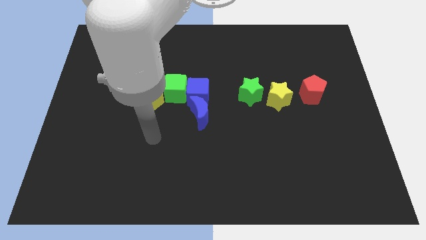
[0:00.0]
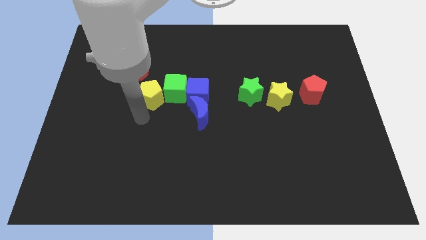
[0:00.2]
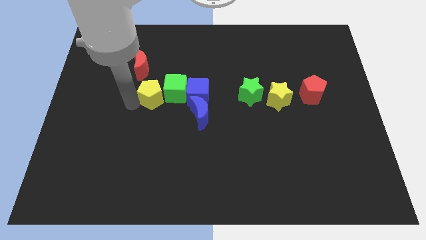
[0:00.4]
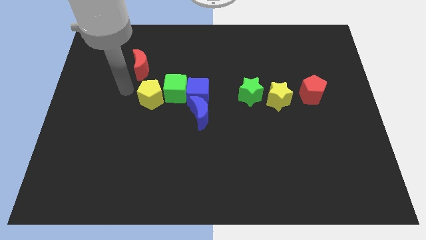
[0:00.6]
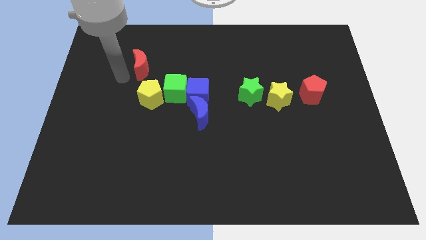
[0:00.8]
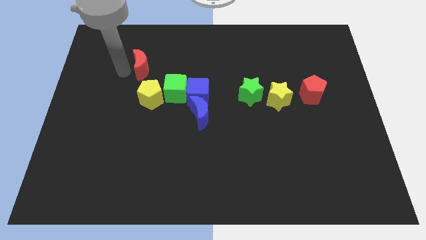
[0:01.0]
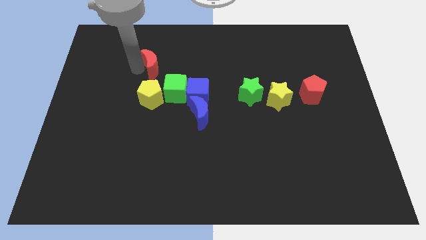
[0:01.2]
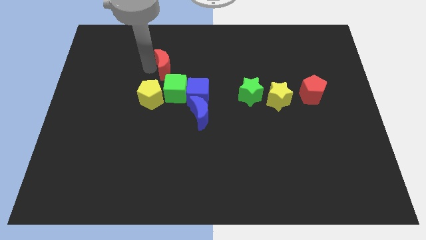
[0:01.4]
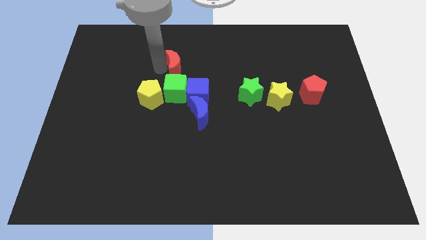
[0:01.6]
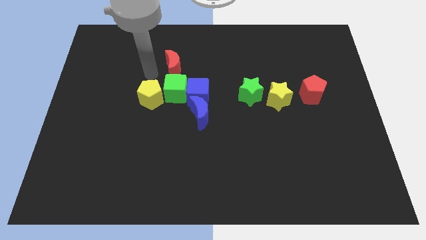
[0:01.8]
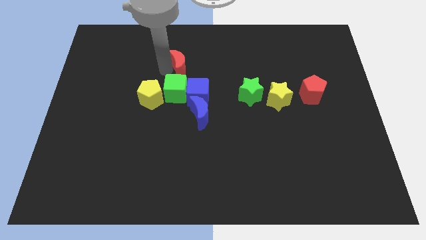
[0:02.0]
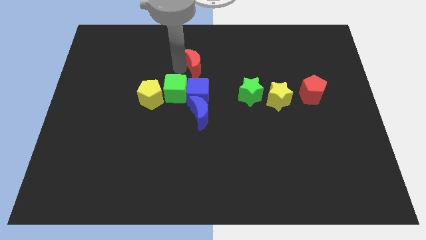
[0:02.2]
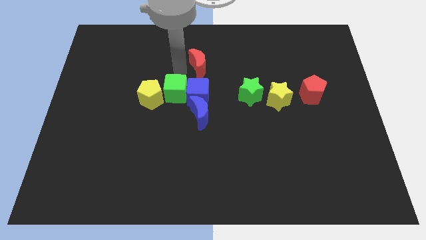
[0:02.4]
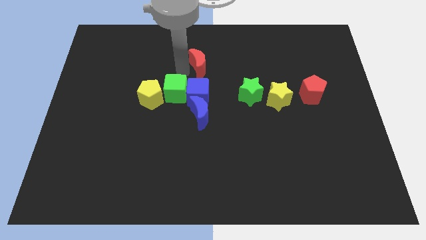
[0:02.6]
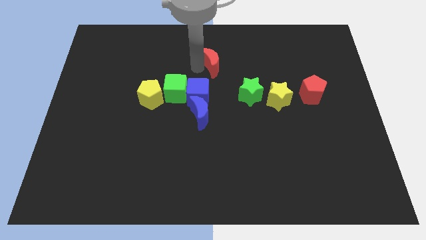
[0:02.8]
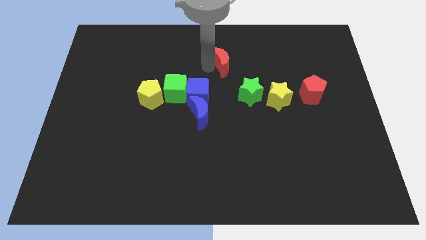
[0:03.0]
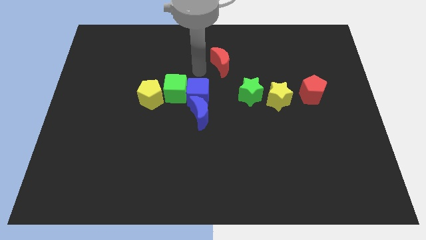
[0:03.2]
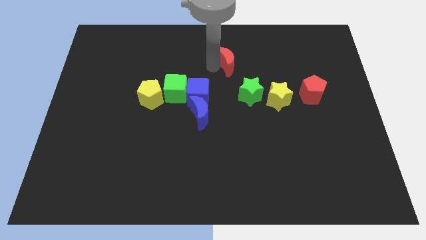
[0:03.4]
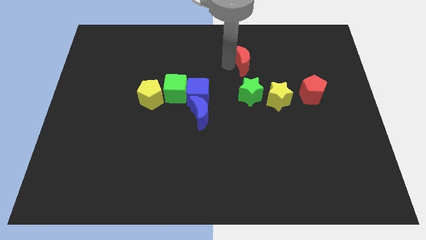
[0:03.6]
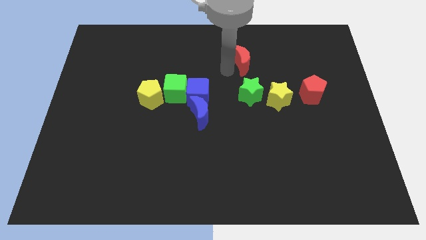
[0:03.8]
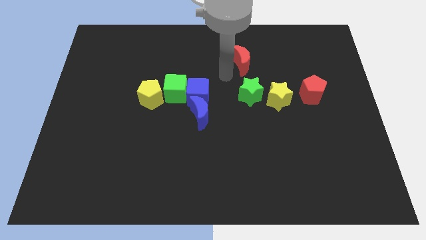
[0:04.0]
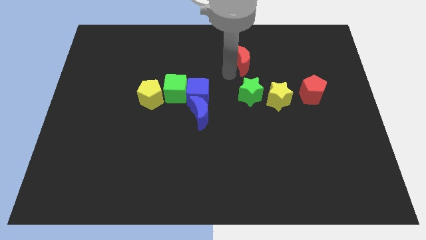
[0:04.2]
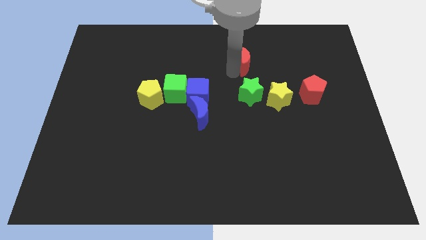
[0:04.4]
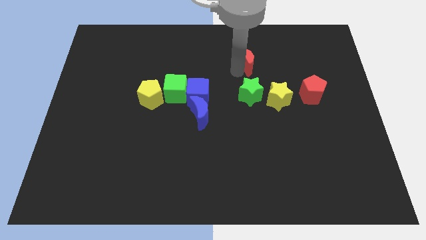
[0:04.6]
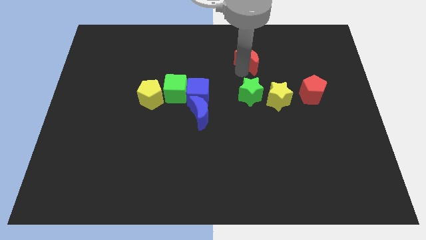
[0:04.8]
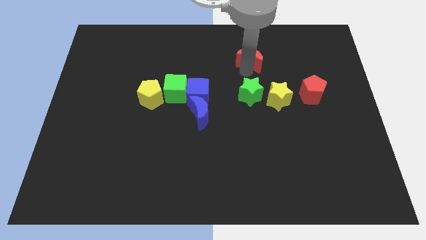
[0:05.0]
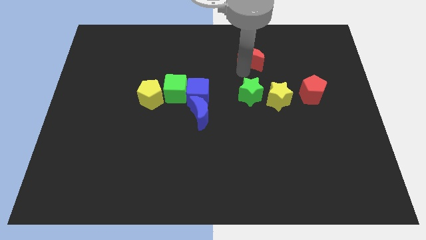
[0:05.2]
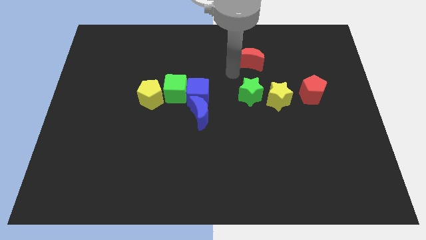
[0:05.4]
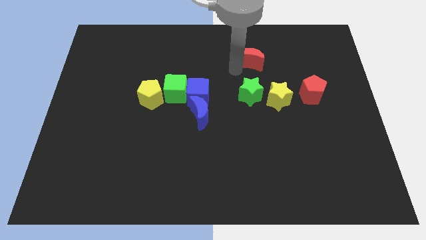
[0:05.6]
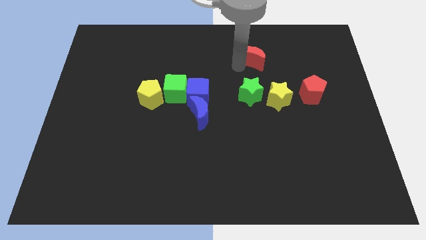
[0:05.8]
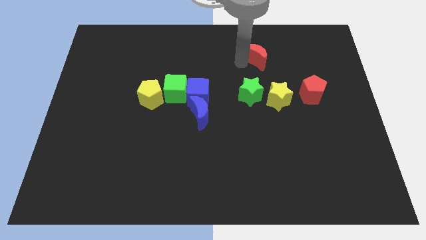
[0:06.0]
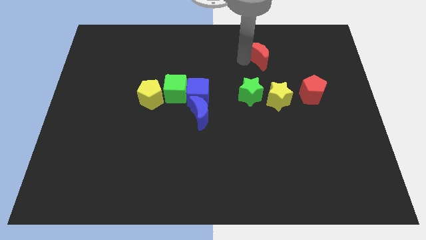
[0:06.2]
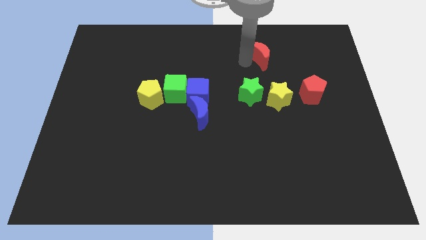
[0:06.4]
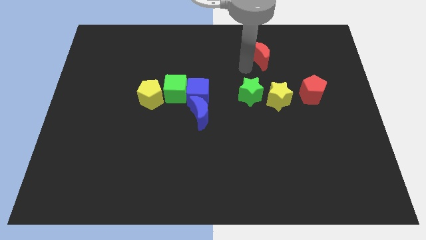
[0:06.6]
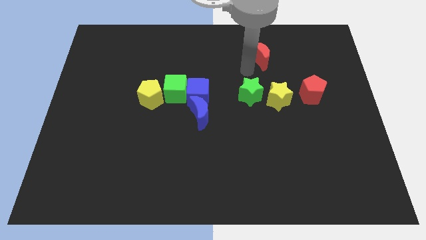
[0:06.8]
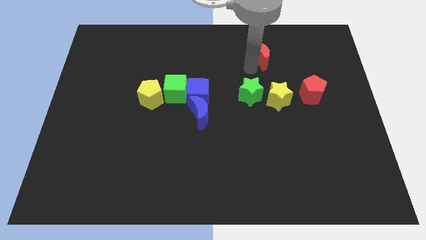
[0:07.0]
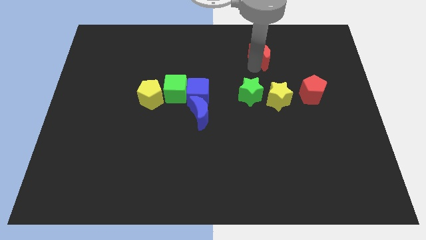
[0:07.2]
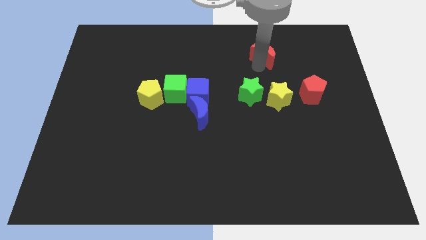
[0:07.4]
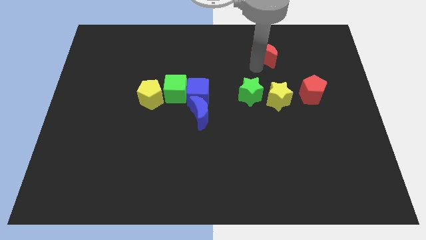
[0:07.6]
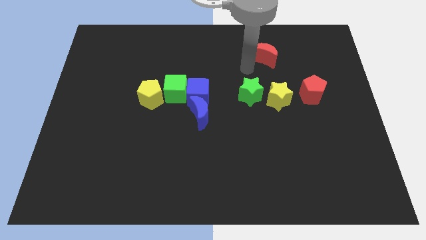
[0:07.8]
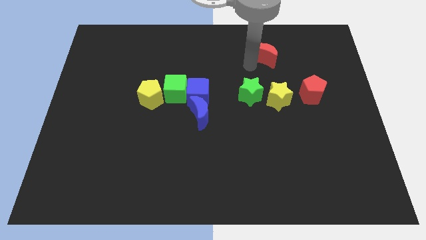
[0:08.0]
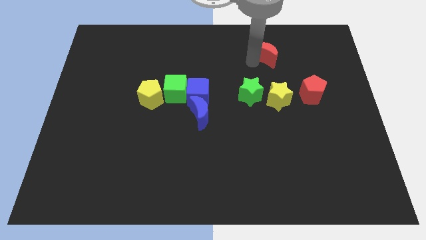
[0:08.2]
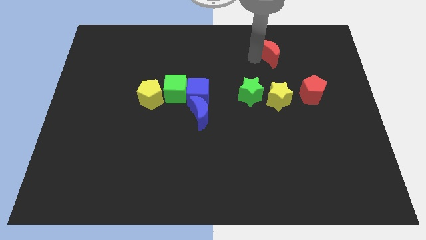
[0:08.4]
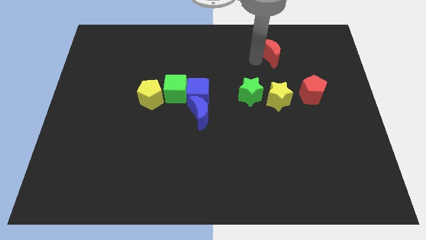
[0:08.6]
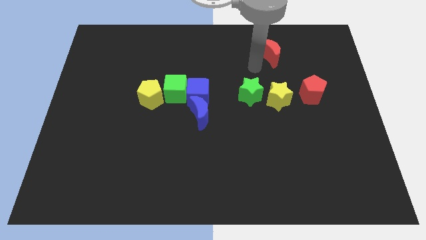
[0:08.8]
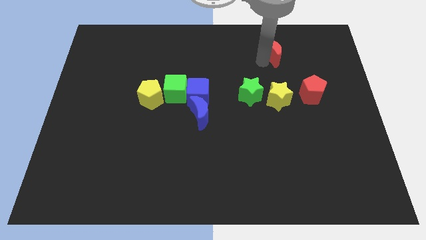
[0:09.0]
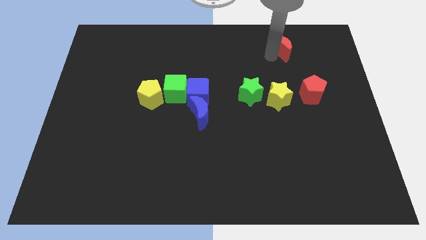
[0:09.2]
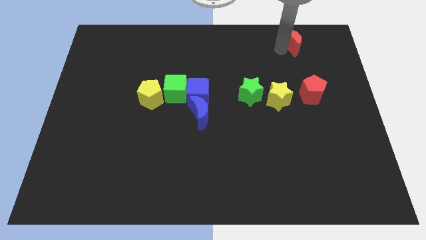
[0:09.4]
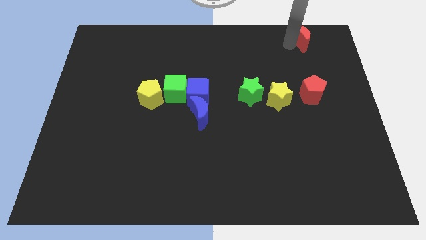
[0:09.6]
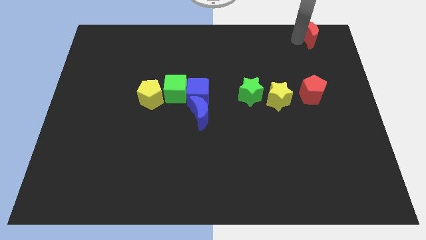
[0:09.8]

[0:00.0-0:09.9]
move the red moon to the top right corner

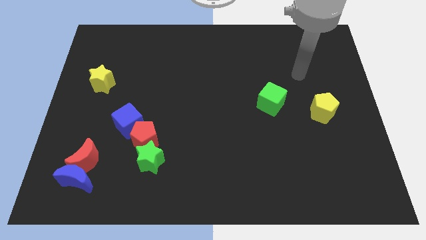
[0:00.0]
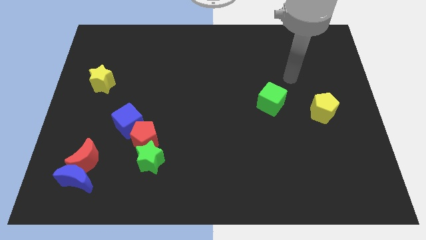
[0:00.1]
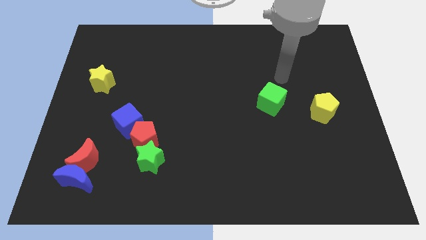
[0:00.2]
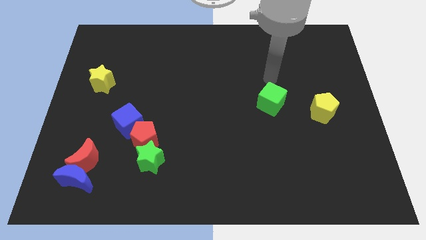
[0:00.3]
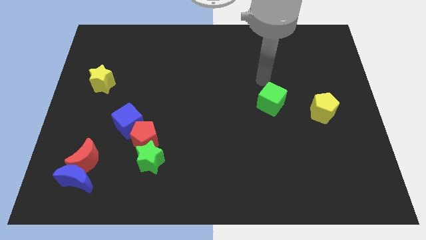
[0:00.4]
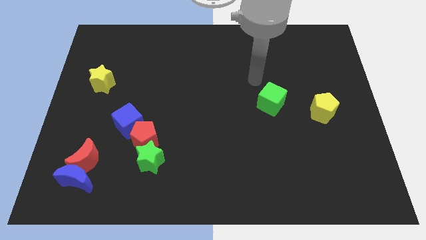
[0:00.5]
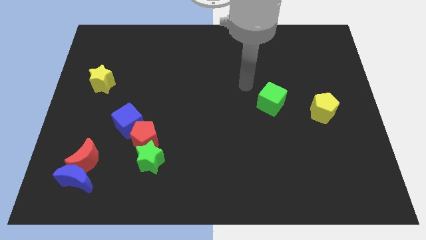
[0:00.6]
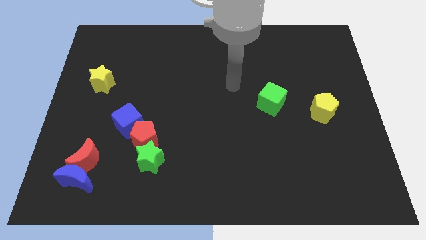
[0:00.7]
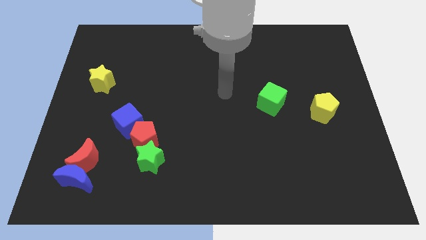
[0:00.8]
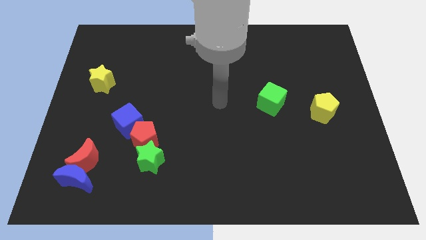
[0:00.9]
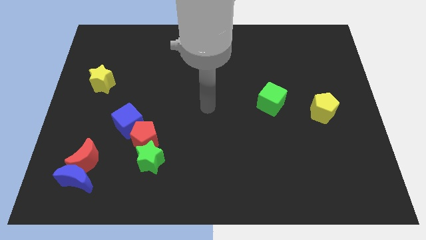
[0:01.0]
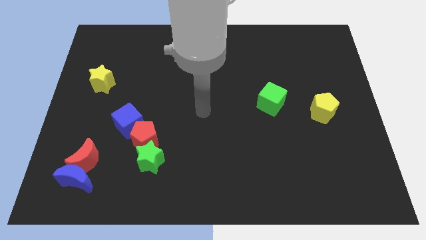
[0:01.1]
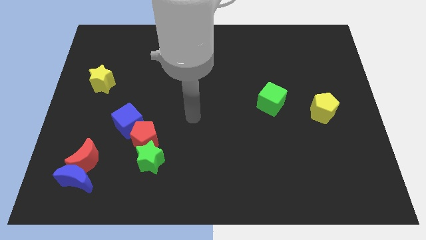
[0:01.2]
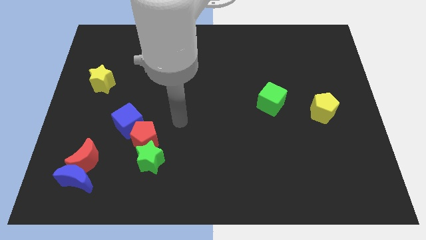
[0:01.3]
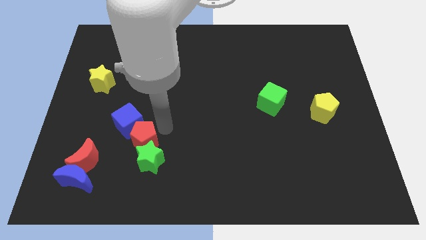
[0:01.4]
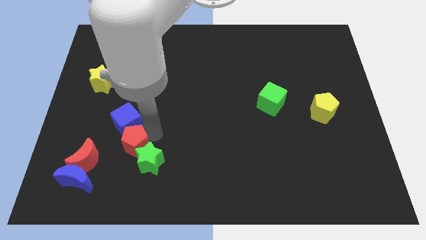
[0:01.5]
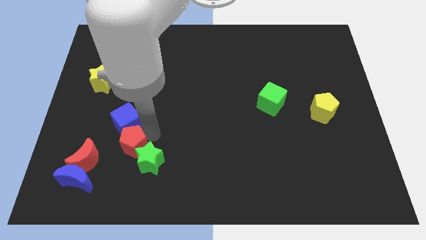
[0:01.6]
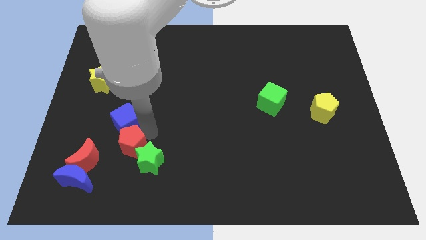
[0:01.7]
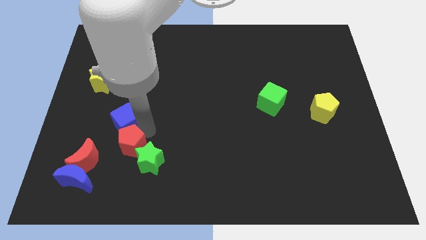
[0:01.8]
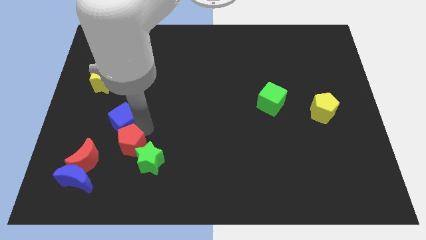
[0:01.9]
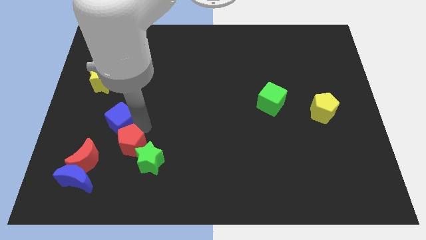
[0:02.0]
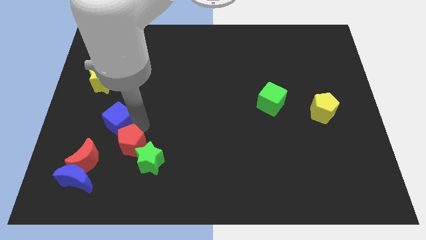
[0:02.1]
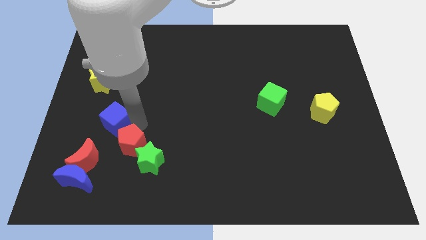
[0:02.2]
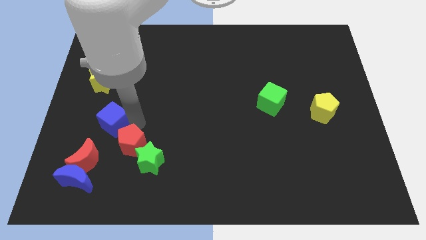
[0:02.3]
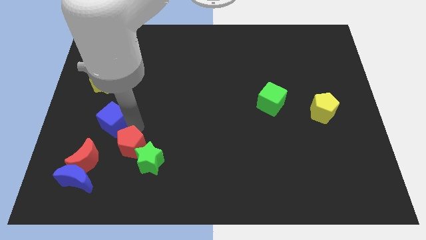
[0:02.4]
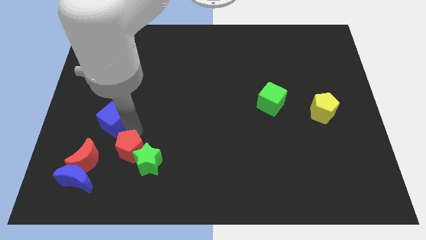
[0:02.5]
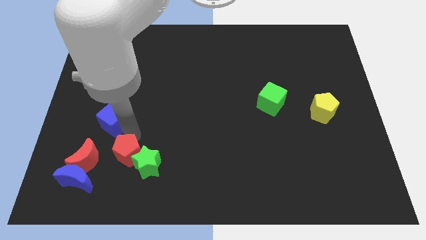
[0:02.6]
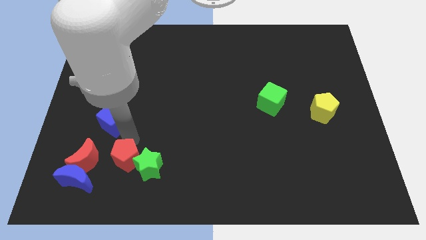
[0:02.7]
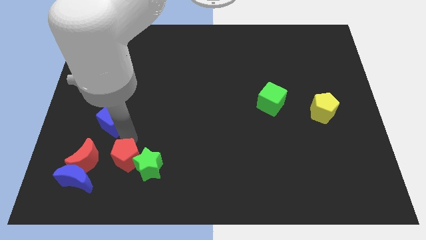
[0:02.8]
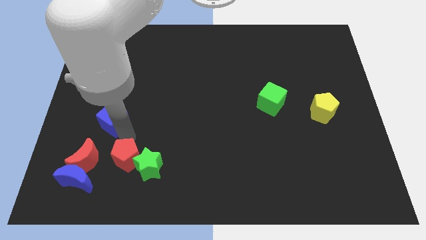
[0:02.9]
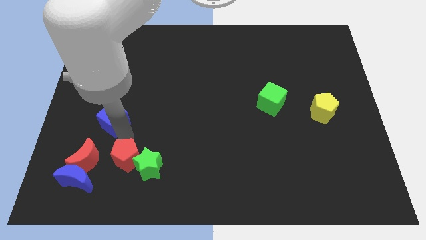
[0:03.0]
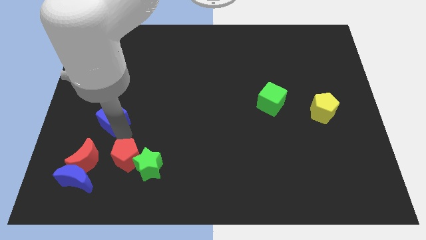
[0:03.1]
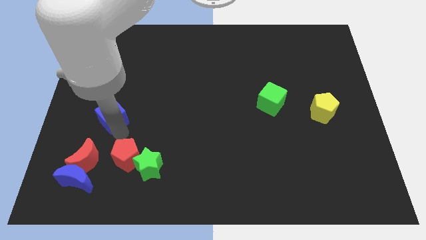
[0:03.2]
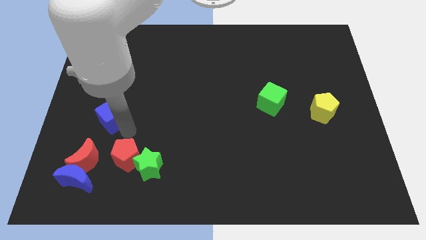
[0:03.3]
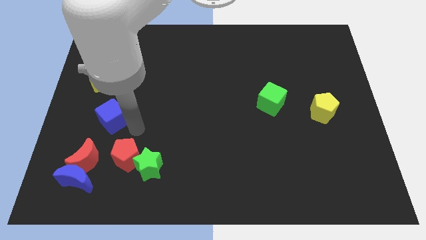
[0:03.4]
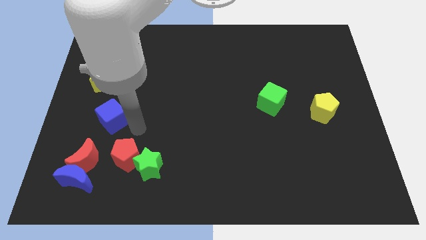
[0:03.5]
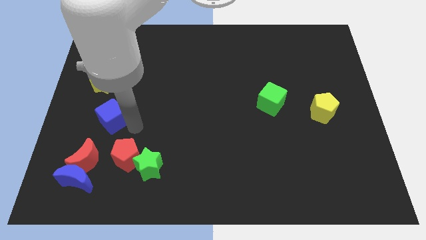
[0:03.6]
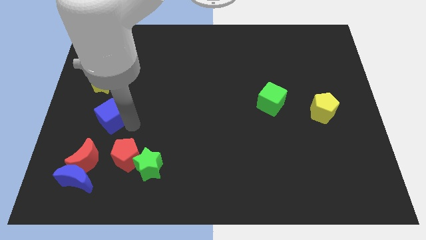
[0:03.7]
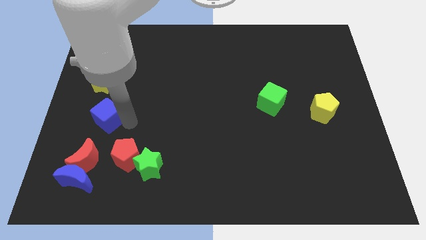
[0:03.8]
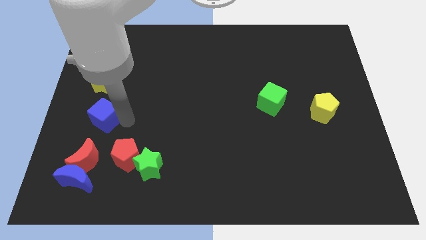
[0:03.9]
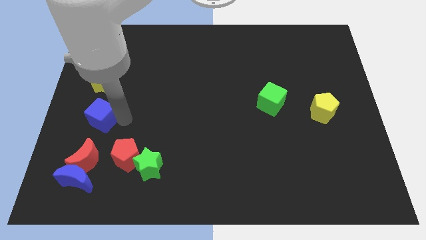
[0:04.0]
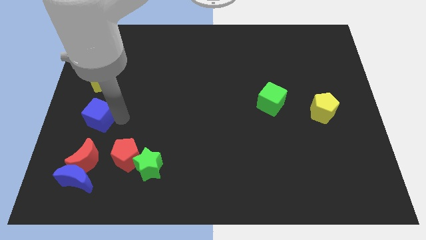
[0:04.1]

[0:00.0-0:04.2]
slide the blue cube to the left side of the board
